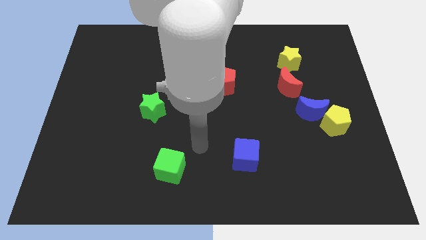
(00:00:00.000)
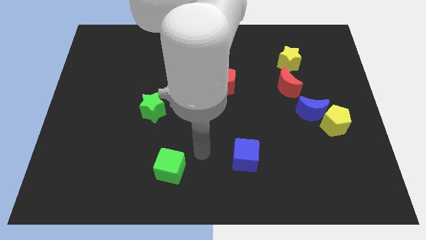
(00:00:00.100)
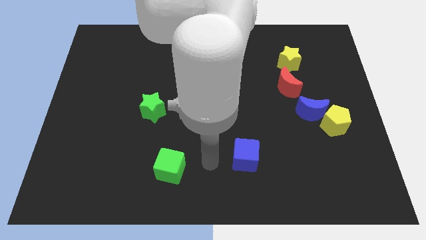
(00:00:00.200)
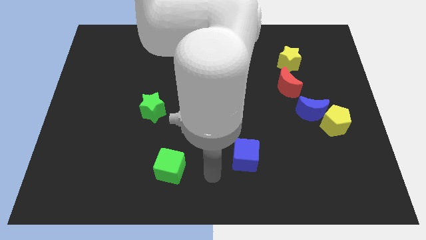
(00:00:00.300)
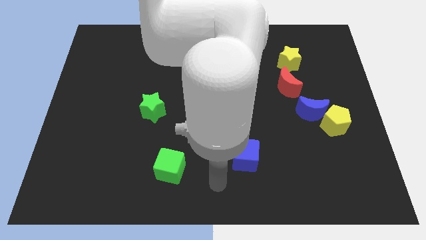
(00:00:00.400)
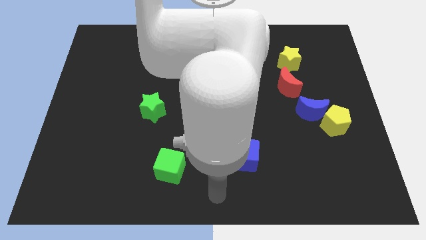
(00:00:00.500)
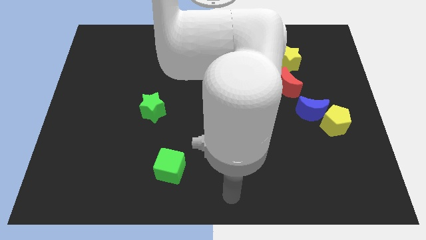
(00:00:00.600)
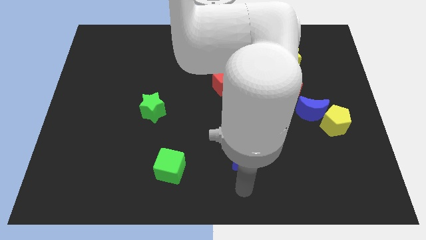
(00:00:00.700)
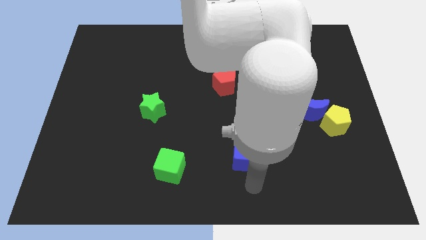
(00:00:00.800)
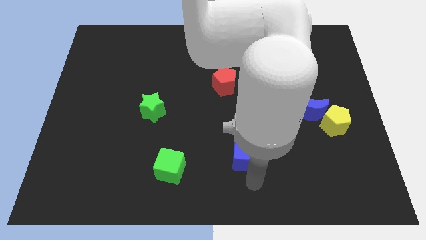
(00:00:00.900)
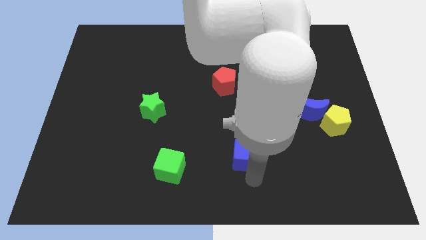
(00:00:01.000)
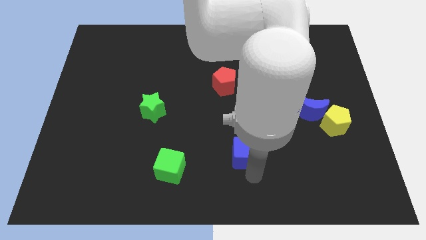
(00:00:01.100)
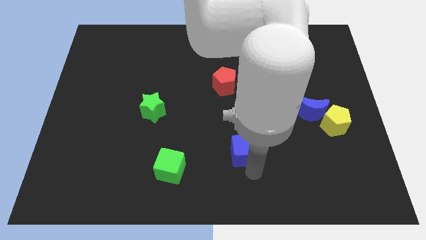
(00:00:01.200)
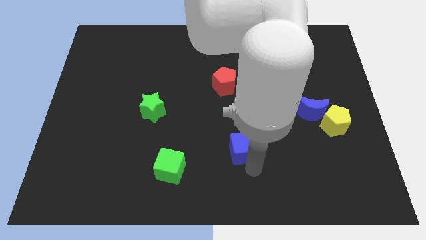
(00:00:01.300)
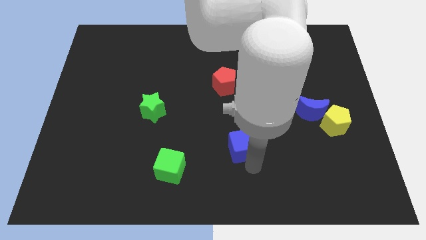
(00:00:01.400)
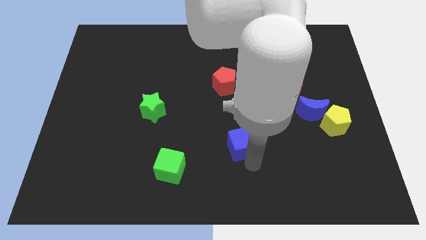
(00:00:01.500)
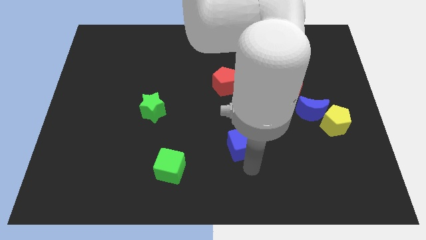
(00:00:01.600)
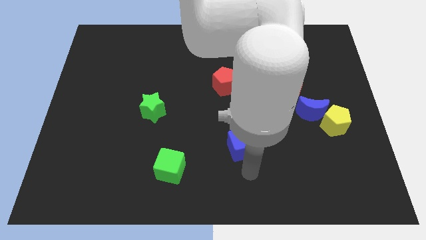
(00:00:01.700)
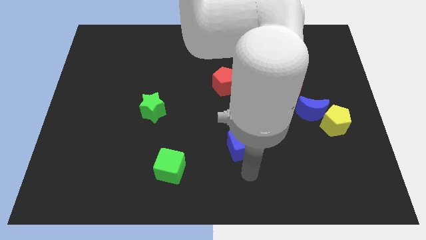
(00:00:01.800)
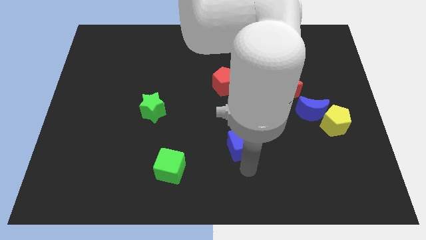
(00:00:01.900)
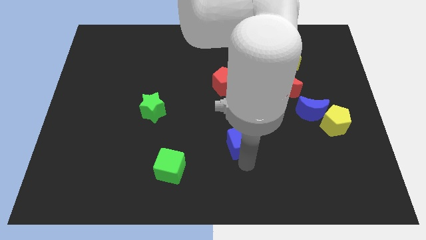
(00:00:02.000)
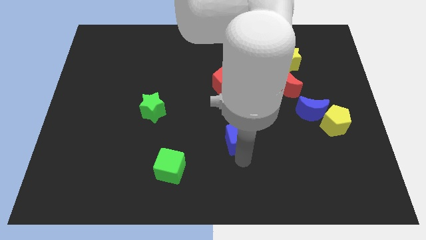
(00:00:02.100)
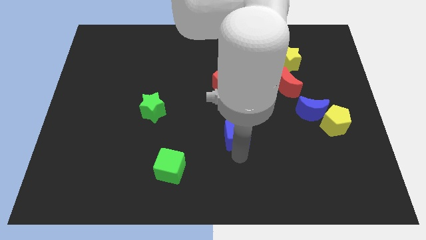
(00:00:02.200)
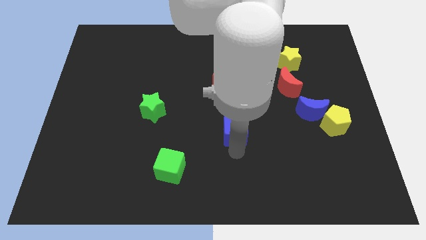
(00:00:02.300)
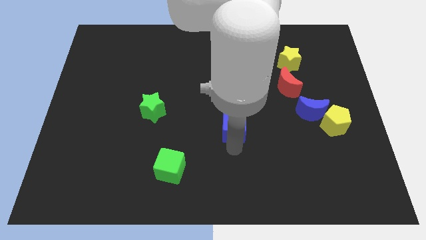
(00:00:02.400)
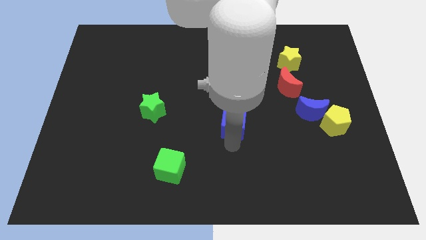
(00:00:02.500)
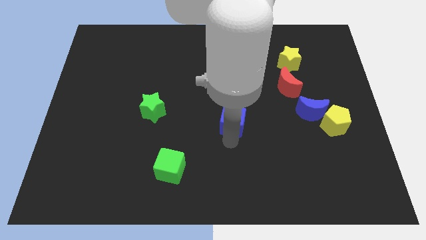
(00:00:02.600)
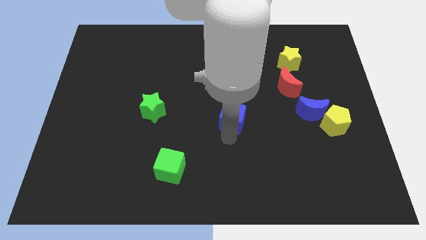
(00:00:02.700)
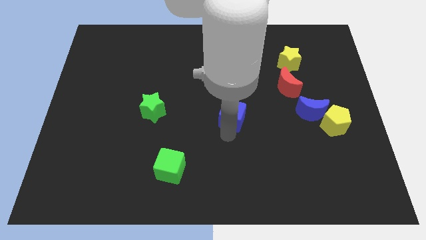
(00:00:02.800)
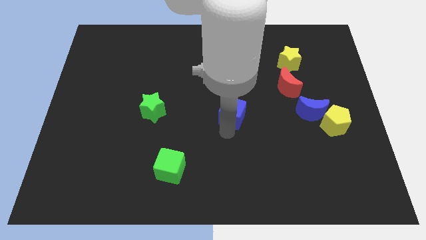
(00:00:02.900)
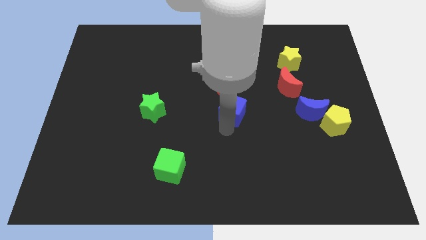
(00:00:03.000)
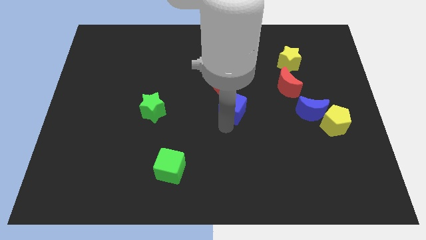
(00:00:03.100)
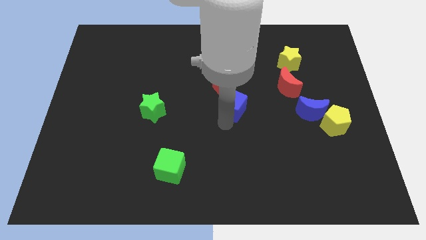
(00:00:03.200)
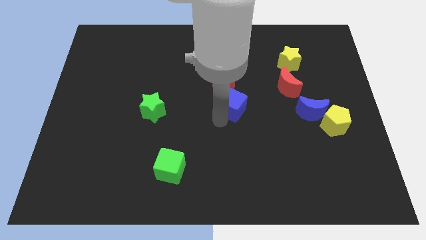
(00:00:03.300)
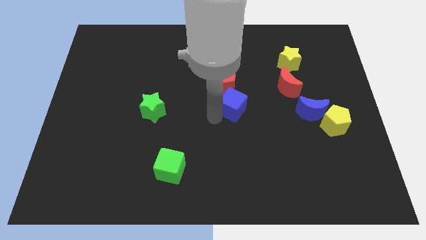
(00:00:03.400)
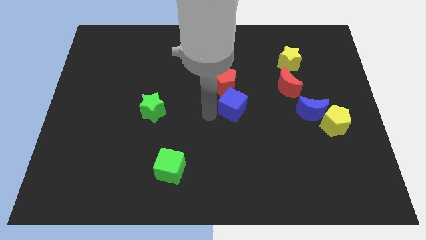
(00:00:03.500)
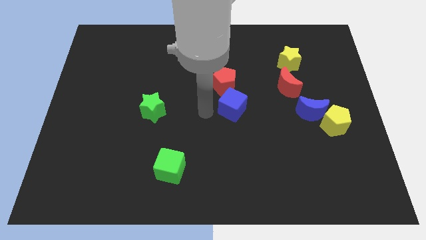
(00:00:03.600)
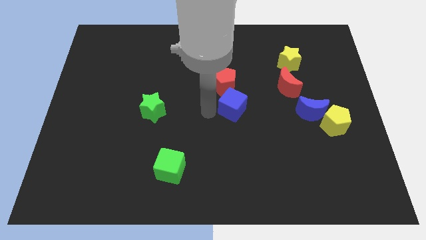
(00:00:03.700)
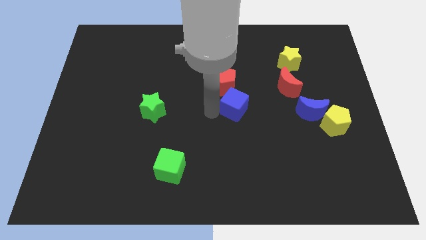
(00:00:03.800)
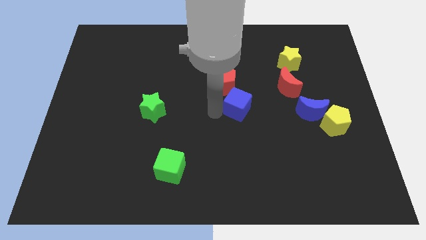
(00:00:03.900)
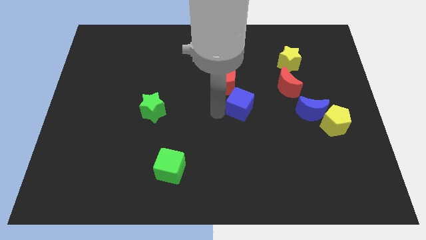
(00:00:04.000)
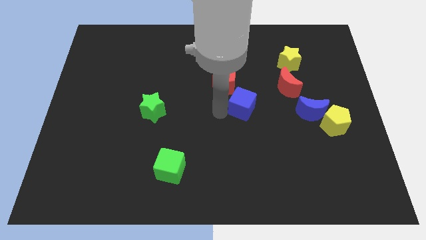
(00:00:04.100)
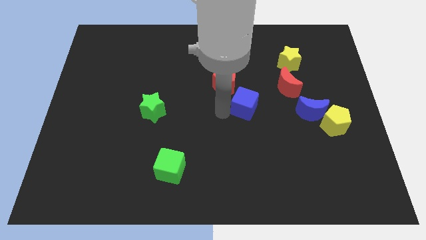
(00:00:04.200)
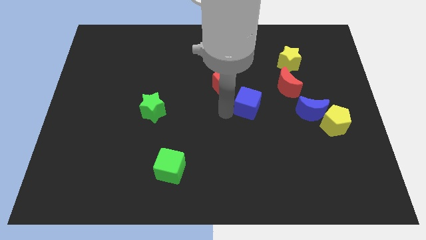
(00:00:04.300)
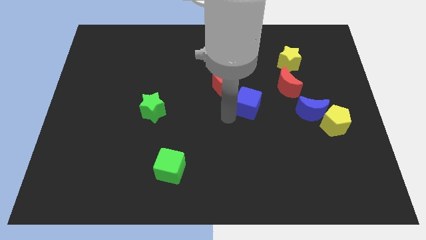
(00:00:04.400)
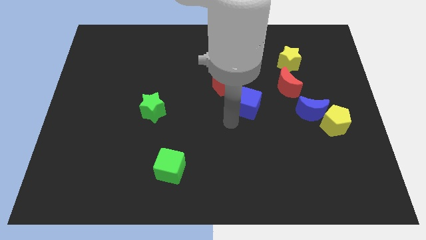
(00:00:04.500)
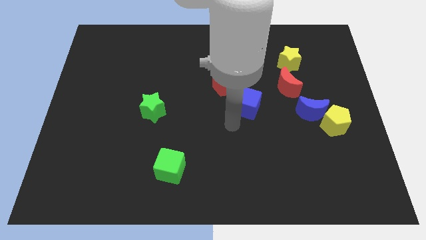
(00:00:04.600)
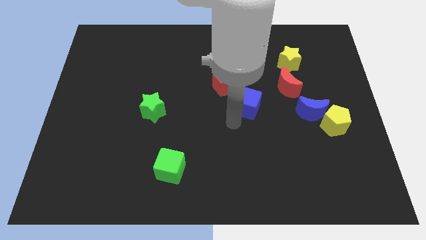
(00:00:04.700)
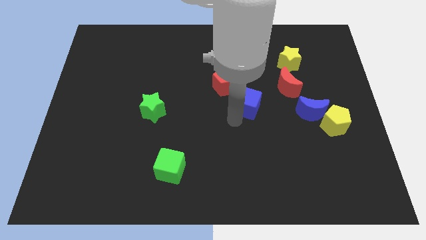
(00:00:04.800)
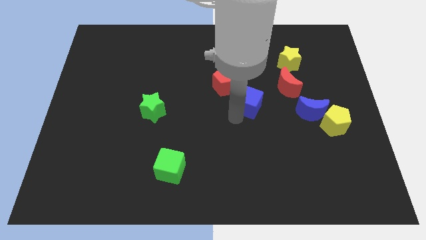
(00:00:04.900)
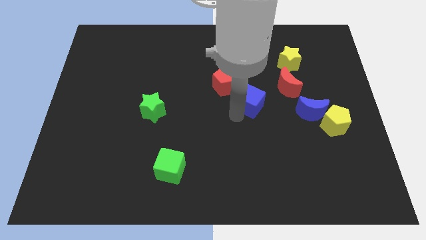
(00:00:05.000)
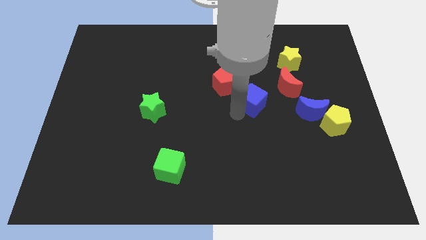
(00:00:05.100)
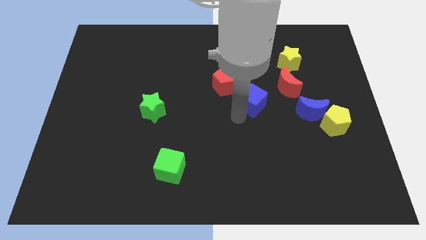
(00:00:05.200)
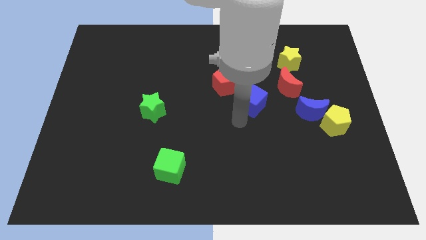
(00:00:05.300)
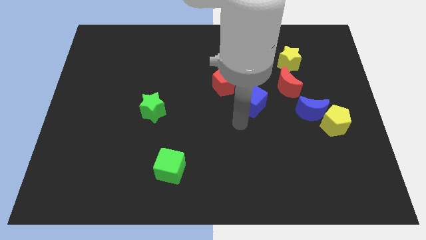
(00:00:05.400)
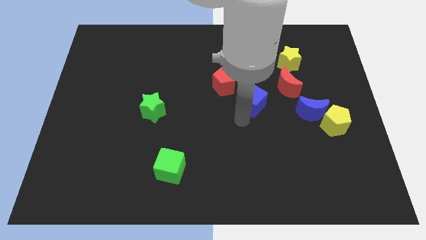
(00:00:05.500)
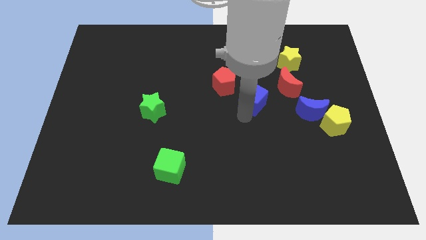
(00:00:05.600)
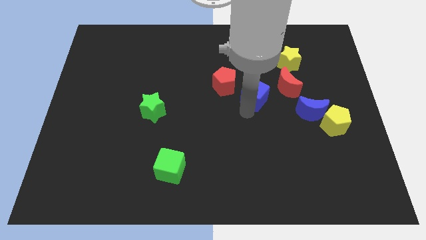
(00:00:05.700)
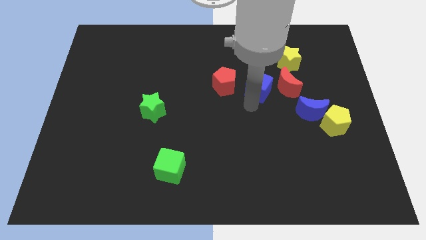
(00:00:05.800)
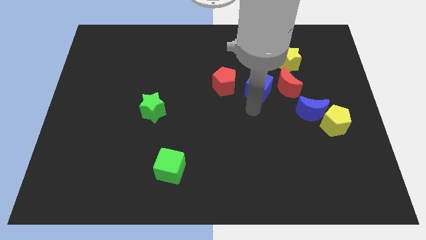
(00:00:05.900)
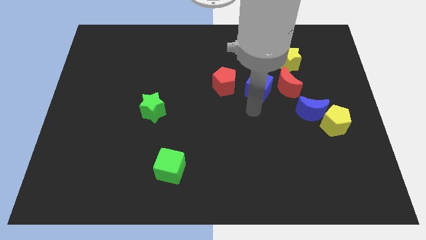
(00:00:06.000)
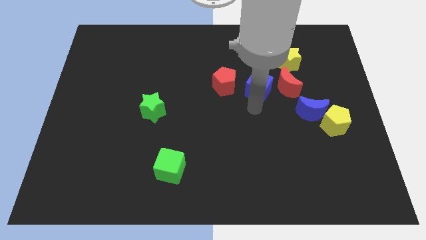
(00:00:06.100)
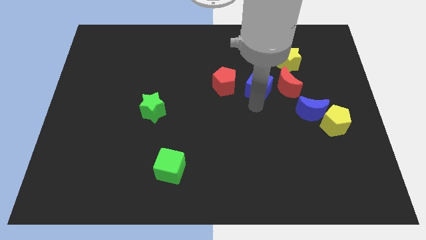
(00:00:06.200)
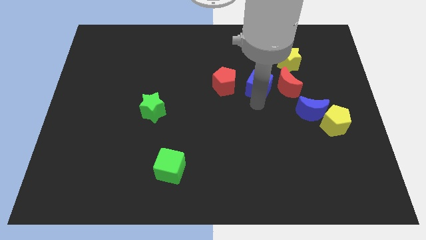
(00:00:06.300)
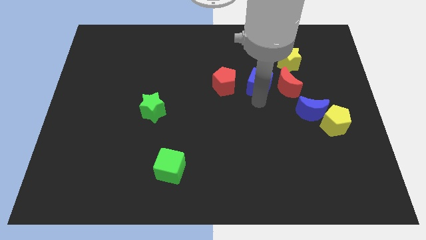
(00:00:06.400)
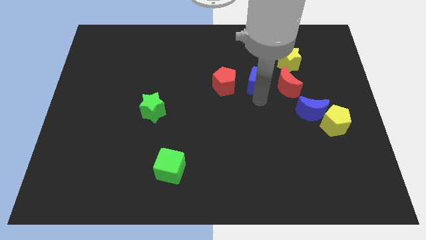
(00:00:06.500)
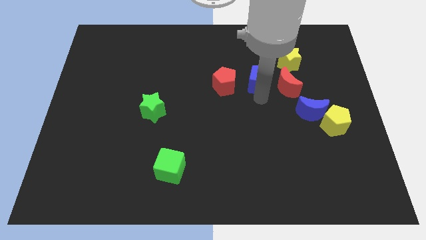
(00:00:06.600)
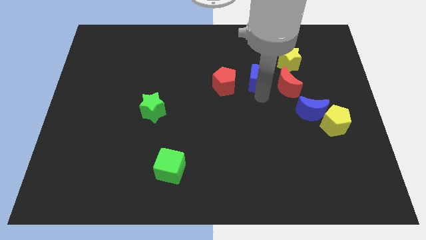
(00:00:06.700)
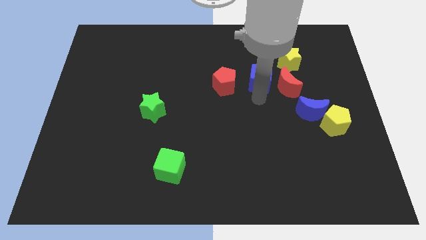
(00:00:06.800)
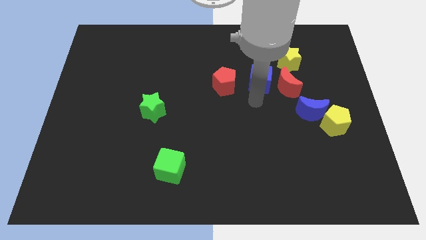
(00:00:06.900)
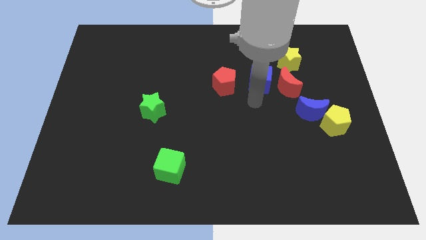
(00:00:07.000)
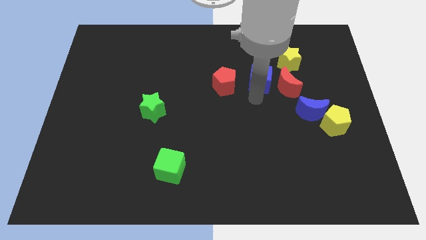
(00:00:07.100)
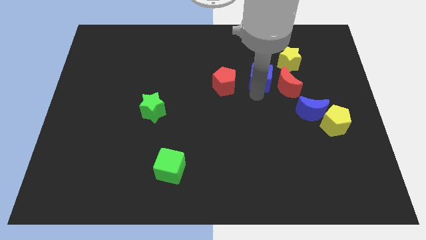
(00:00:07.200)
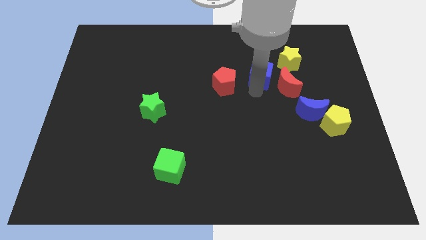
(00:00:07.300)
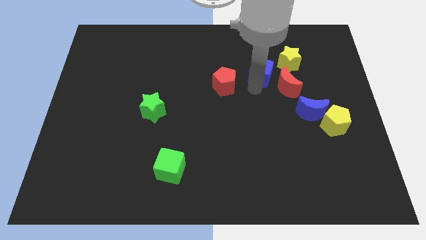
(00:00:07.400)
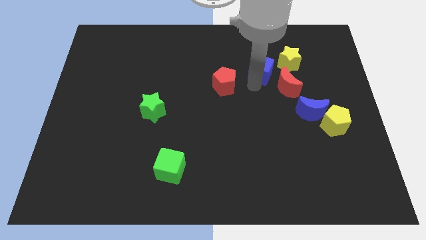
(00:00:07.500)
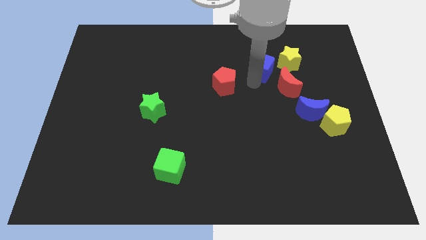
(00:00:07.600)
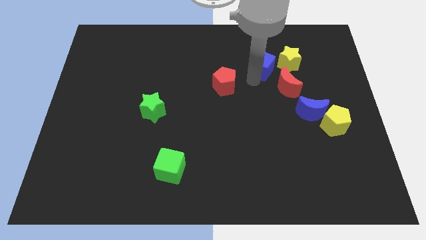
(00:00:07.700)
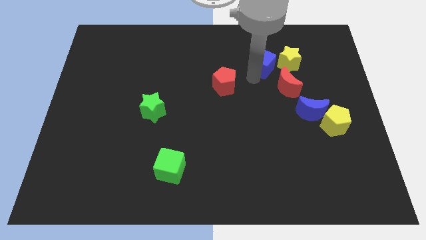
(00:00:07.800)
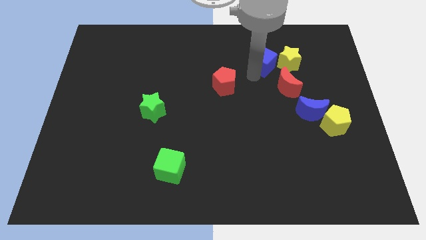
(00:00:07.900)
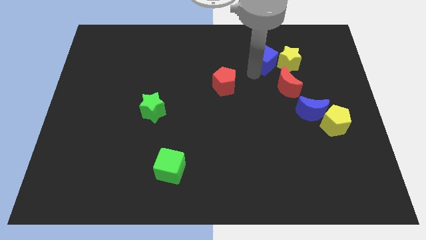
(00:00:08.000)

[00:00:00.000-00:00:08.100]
put the blue cube next to the yellow star

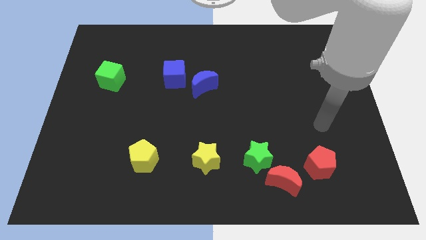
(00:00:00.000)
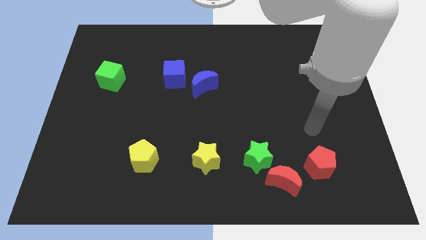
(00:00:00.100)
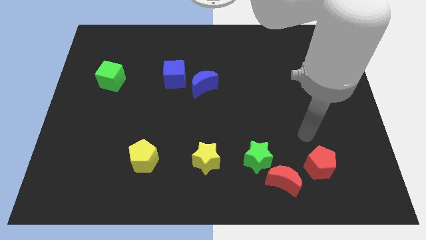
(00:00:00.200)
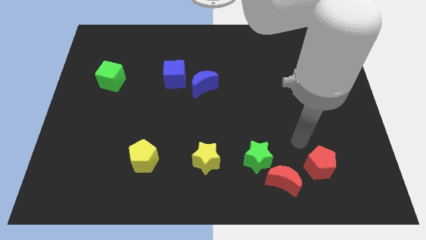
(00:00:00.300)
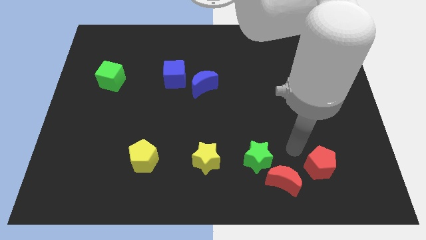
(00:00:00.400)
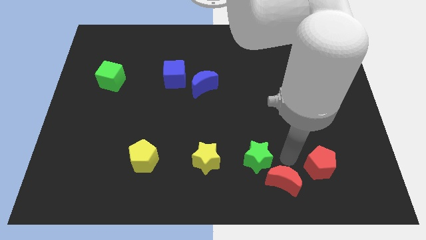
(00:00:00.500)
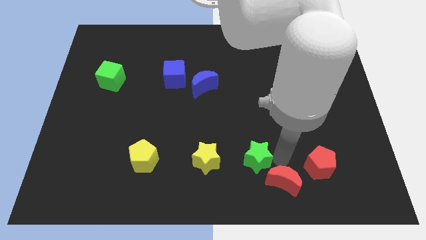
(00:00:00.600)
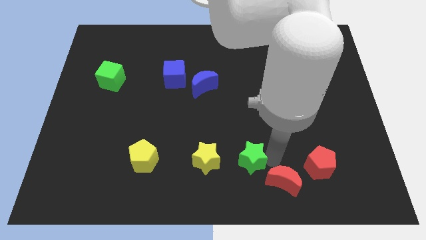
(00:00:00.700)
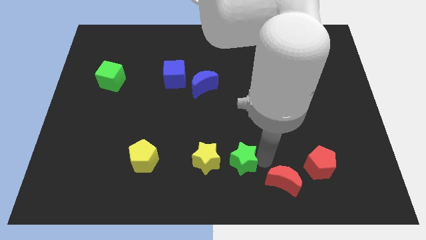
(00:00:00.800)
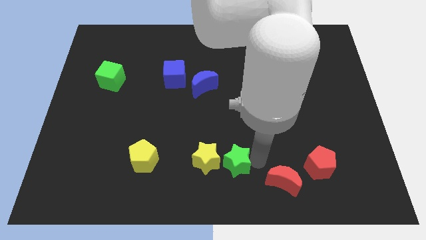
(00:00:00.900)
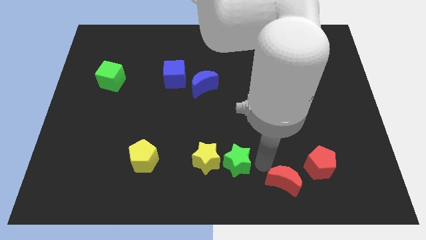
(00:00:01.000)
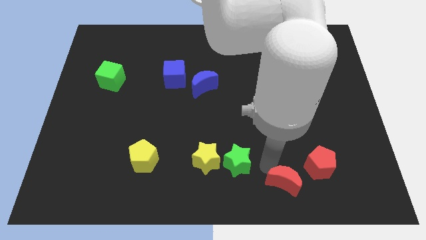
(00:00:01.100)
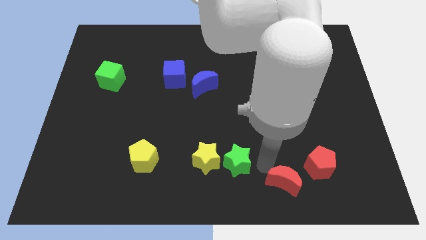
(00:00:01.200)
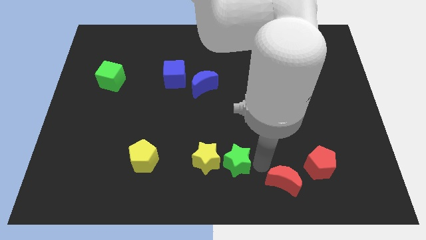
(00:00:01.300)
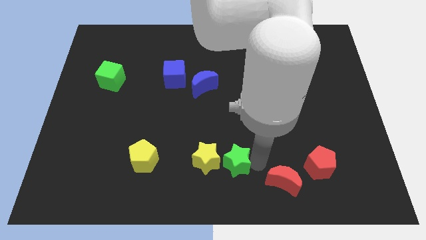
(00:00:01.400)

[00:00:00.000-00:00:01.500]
put the green star to the yellow star
